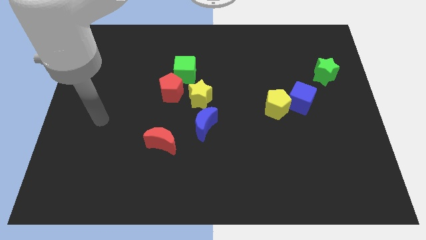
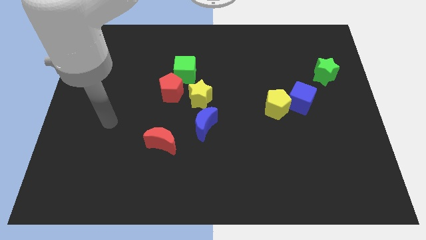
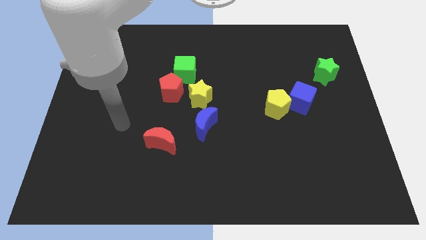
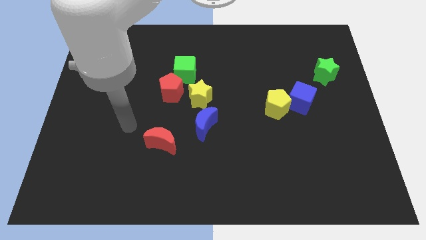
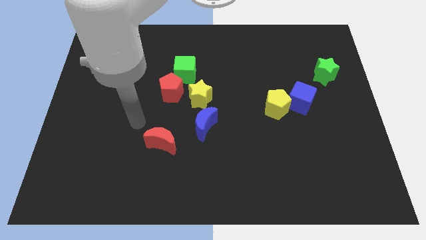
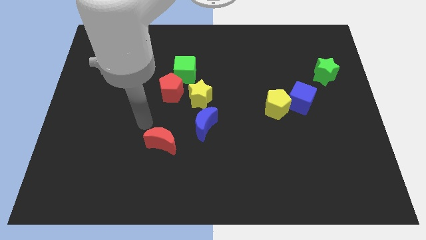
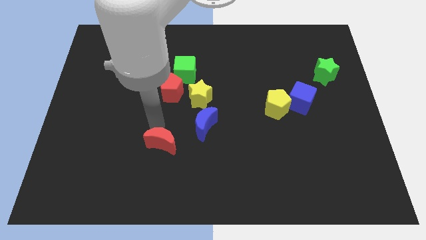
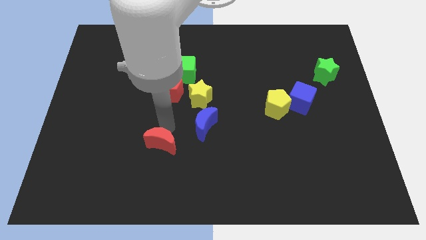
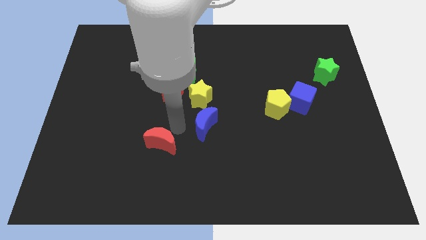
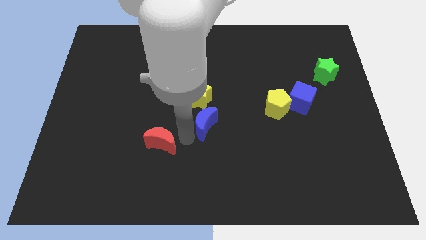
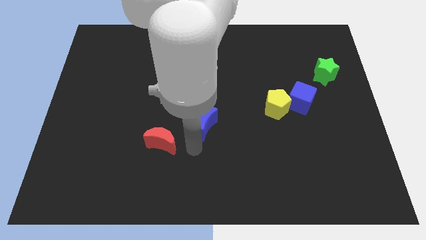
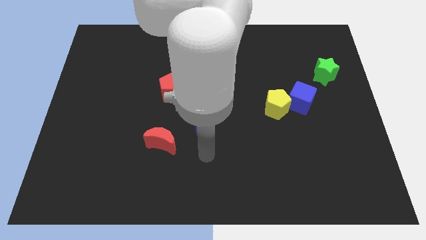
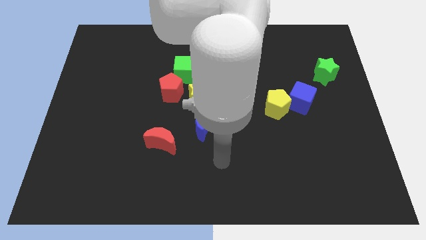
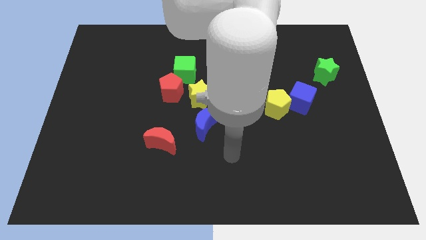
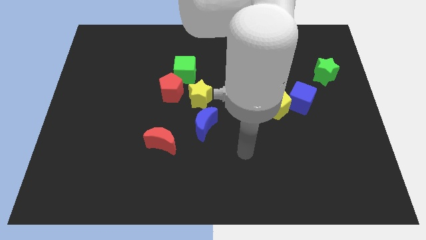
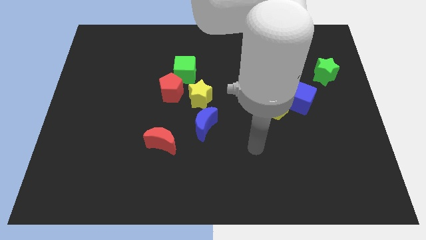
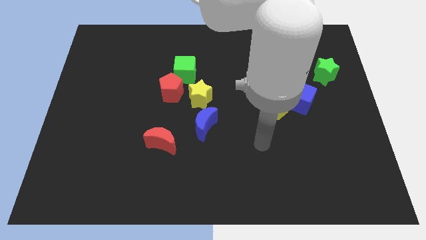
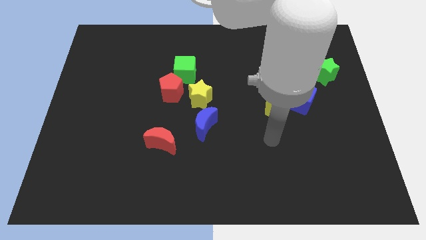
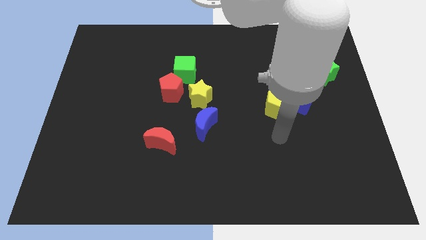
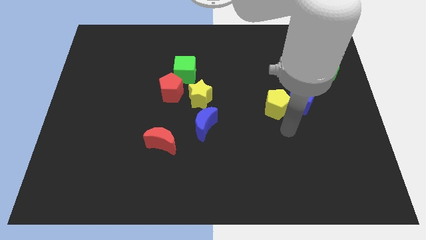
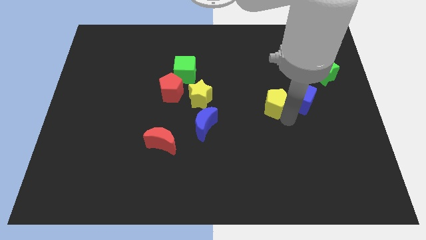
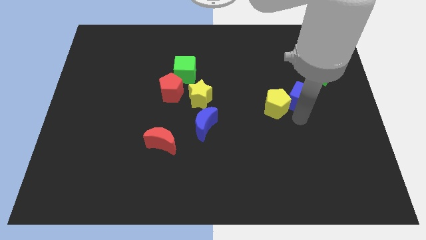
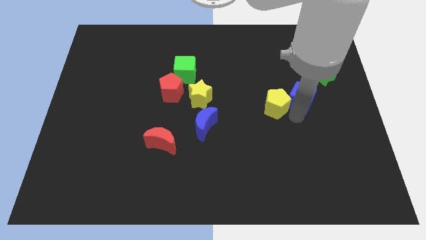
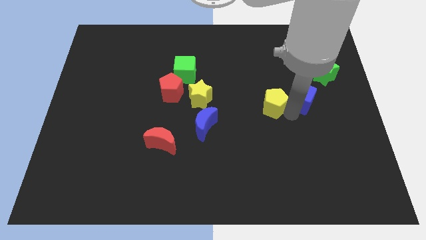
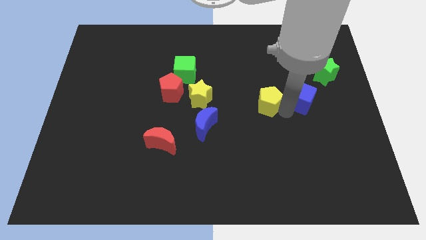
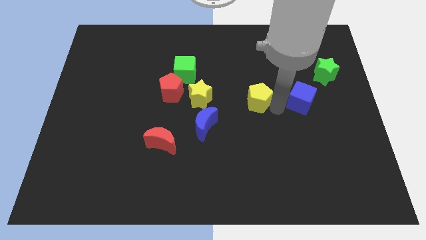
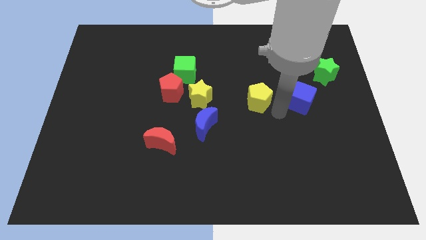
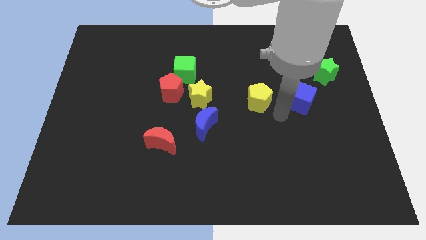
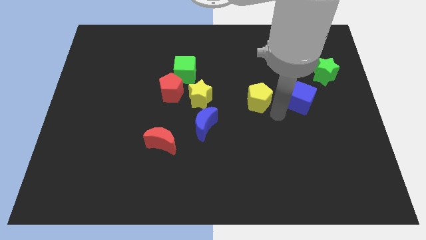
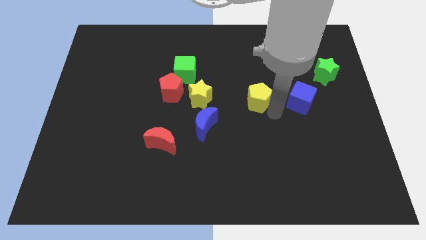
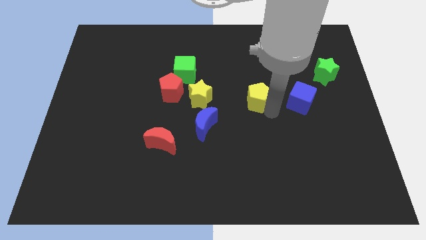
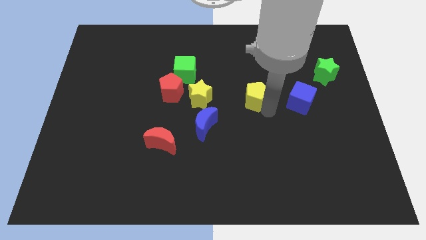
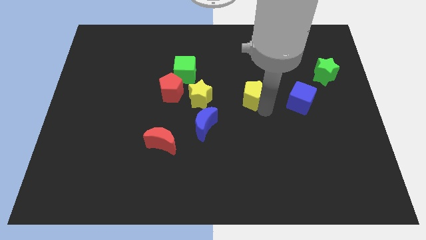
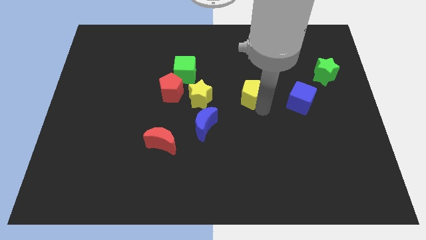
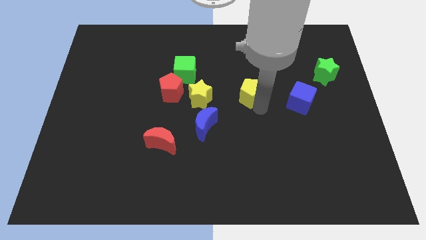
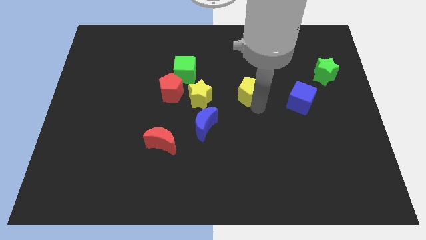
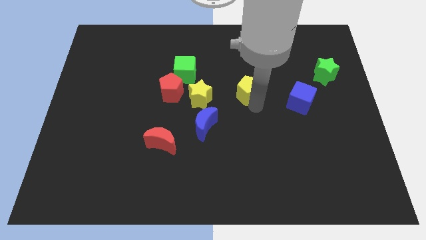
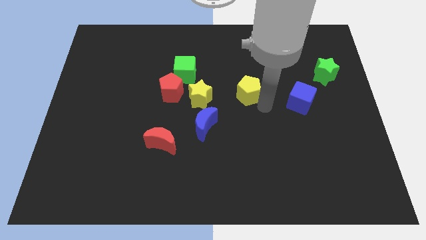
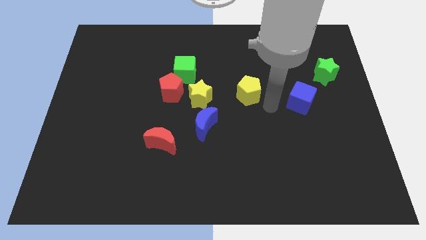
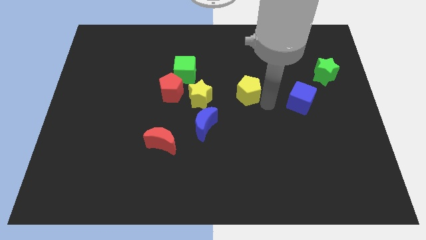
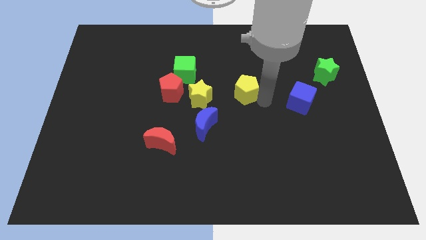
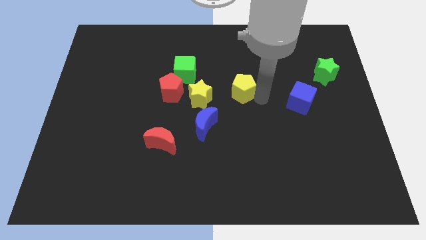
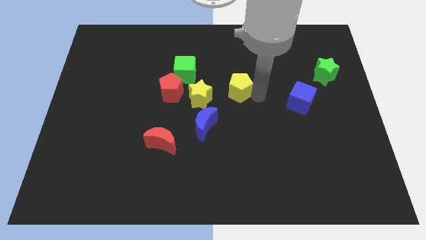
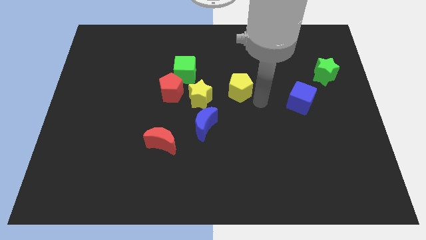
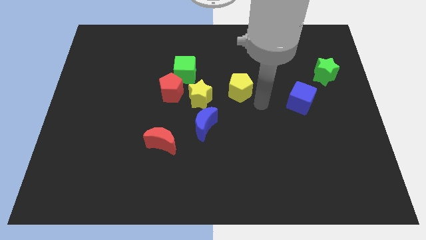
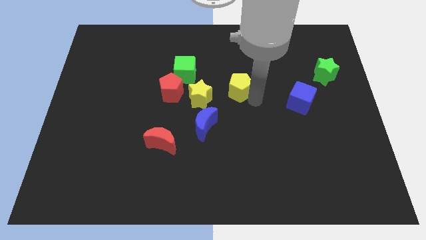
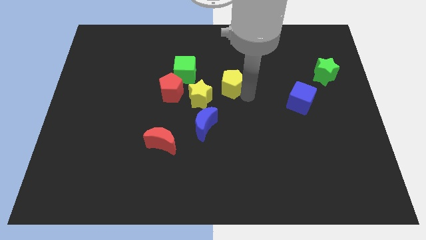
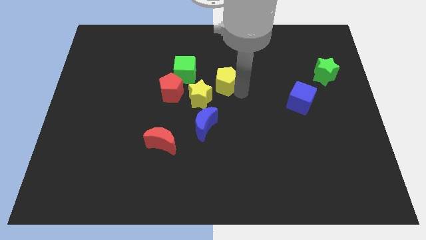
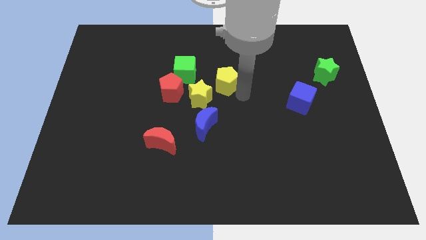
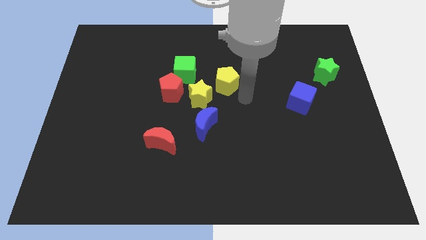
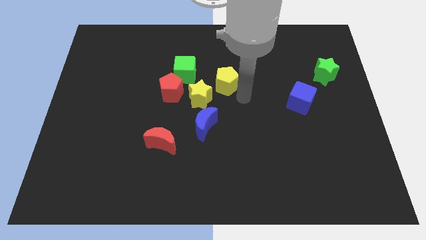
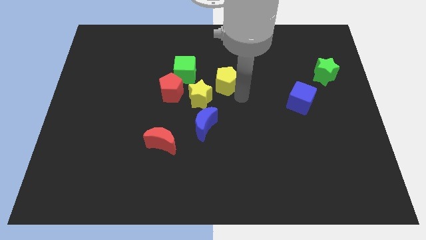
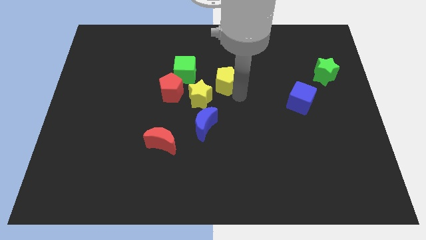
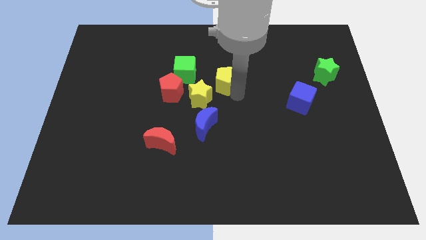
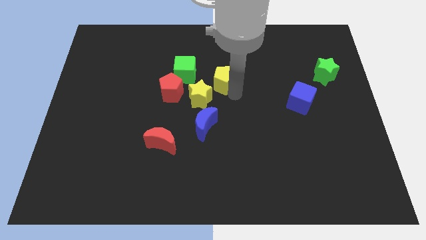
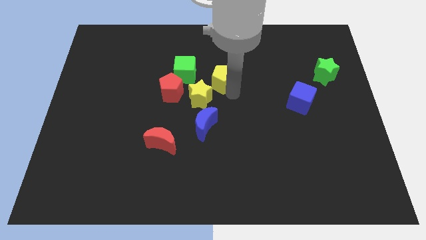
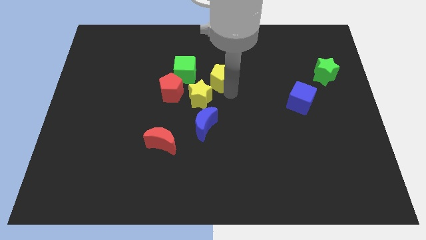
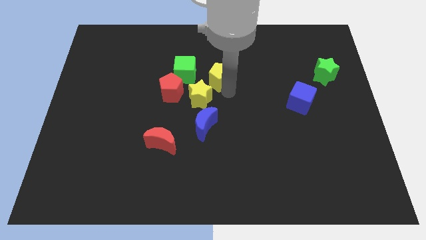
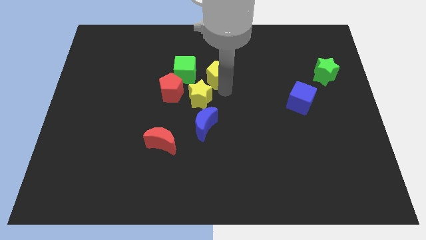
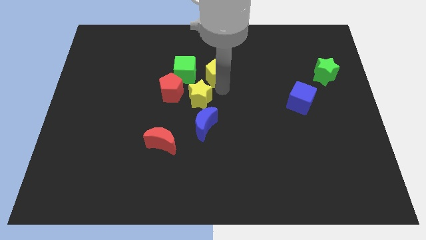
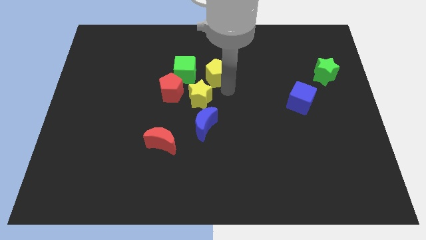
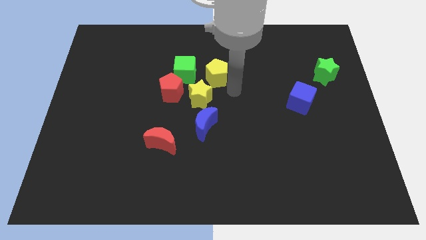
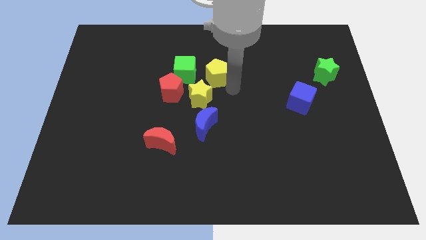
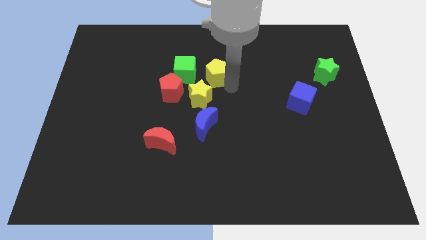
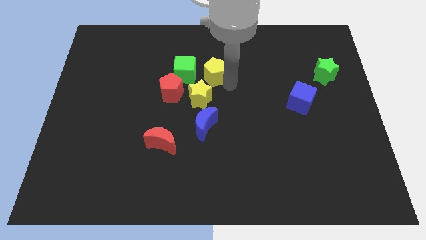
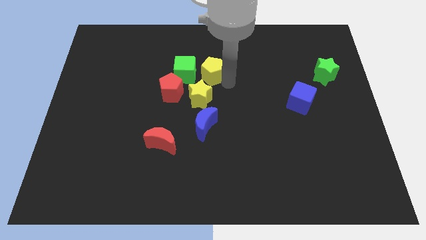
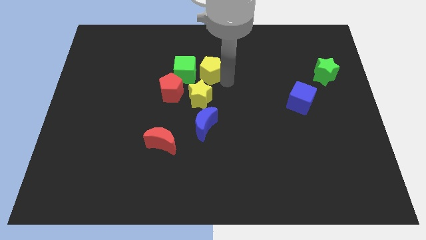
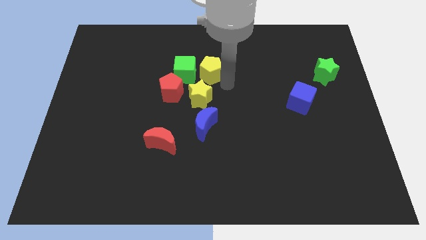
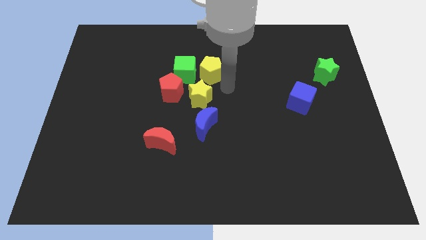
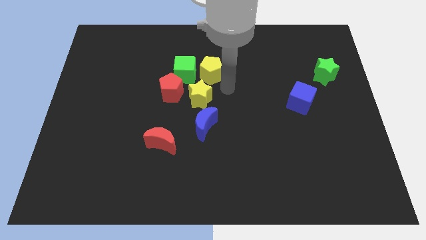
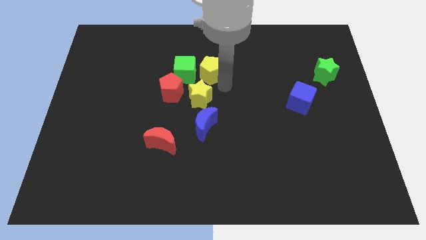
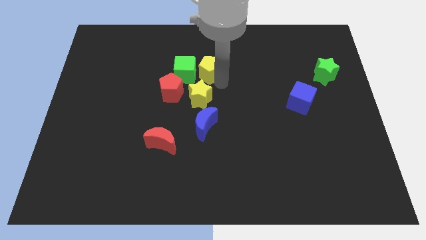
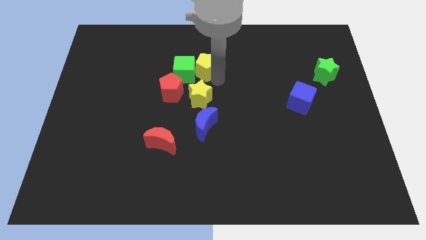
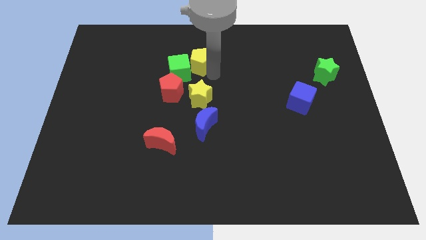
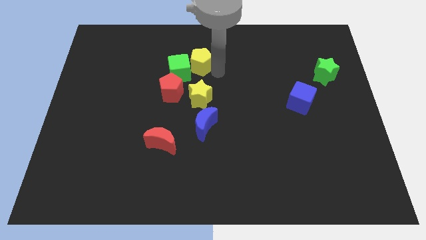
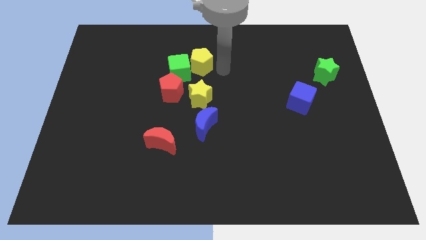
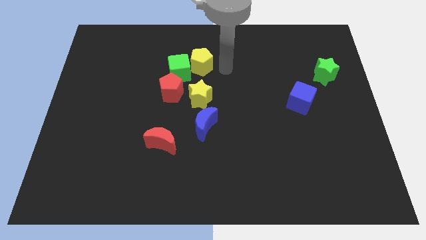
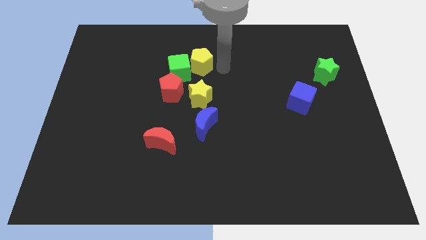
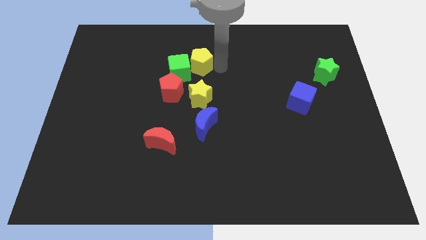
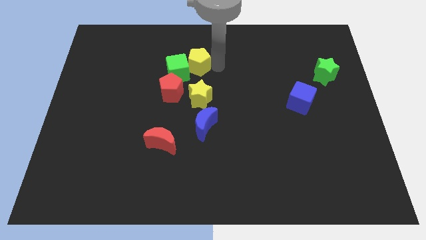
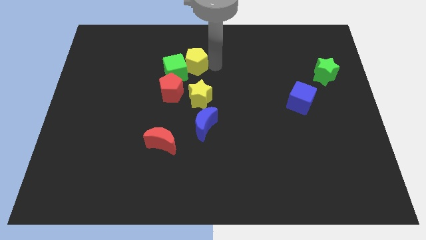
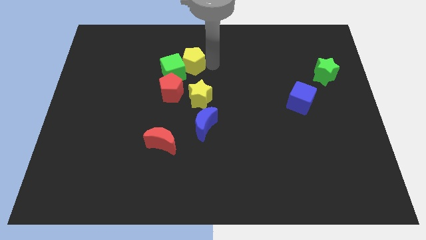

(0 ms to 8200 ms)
move the yellow pentagon above the red pentagon
